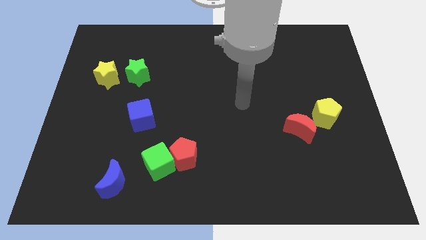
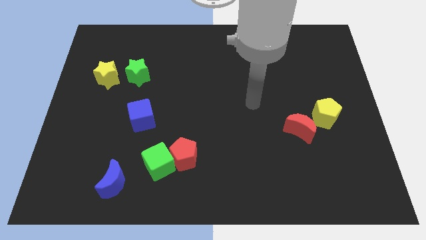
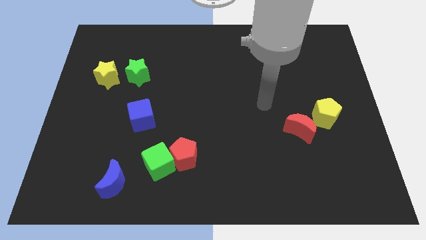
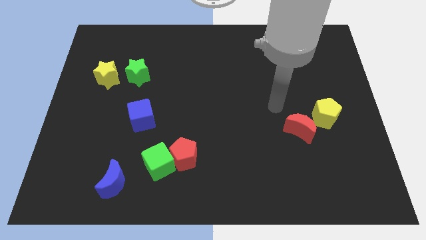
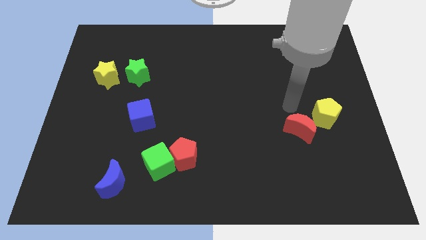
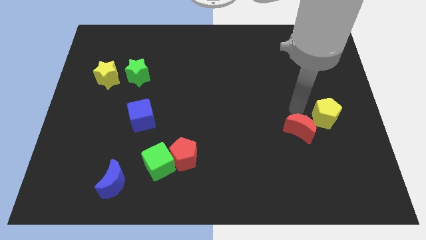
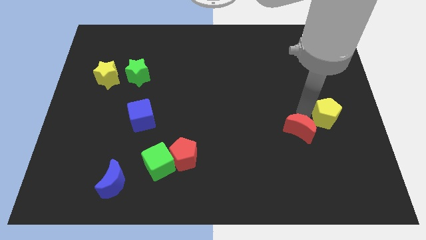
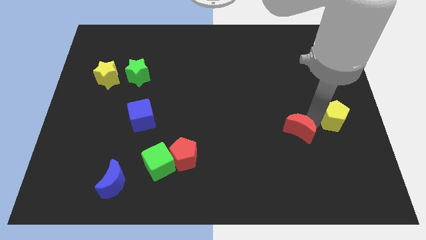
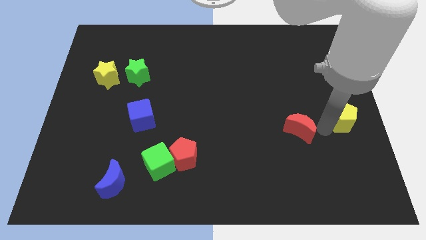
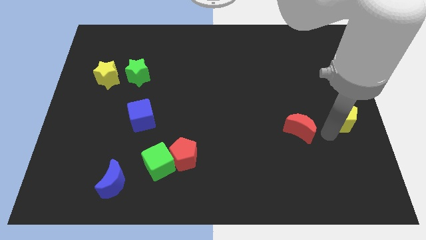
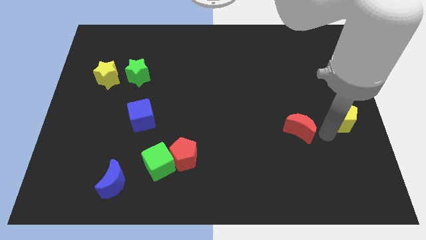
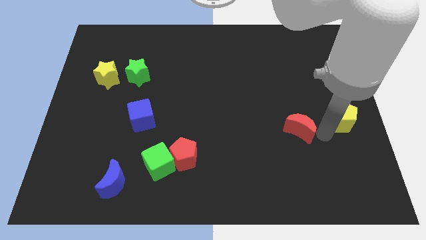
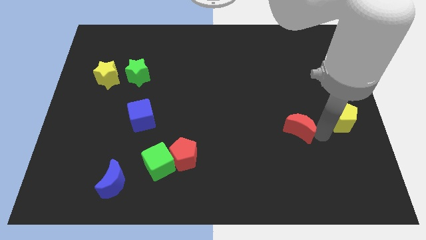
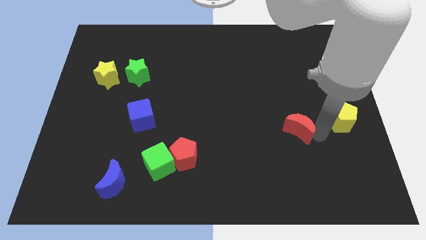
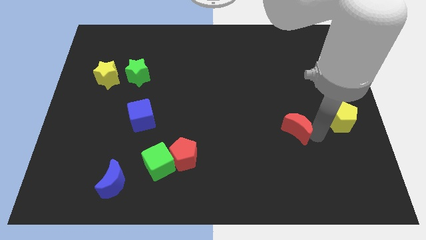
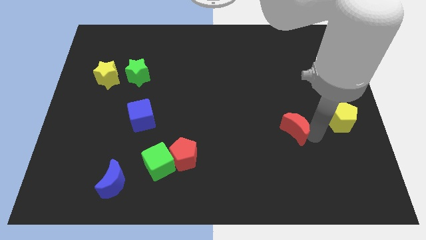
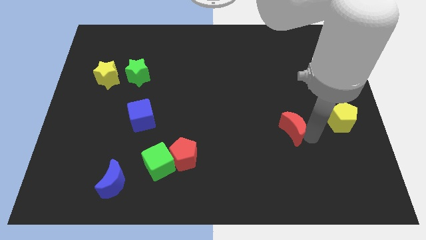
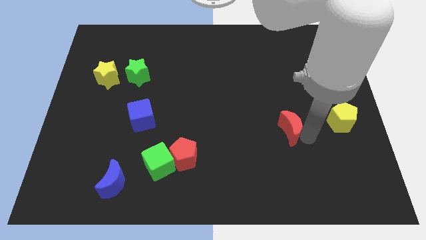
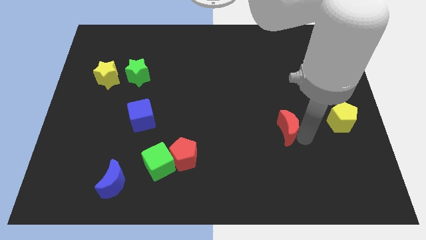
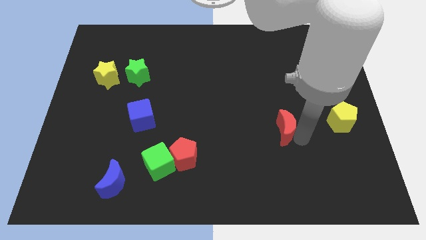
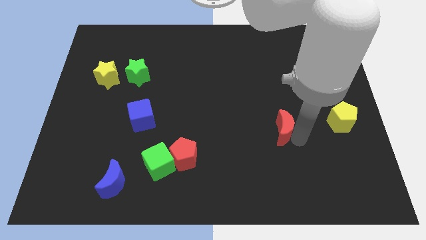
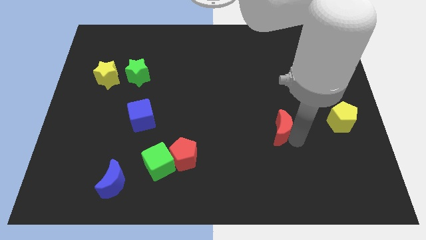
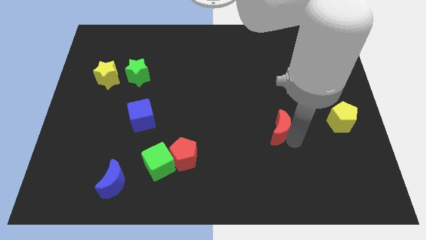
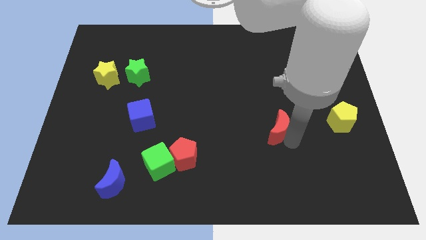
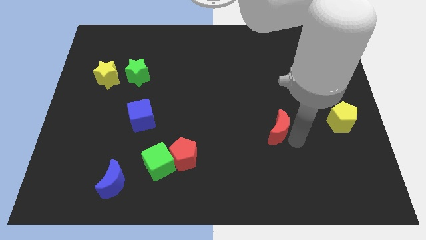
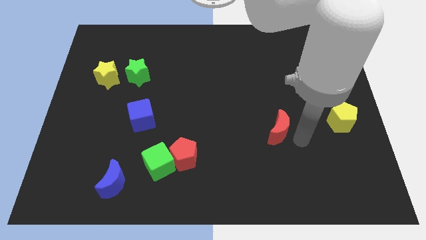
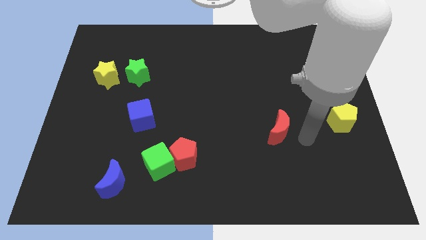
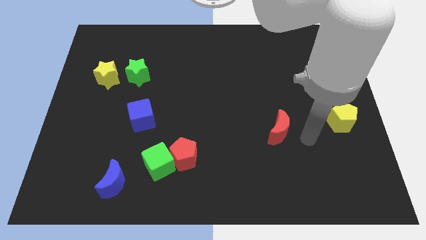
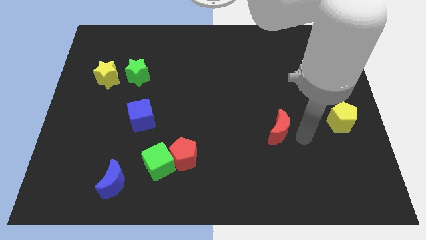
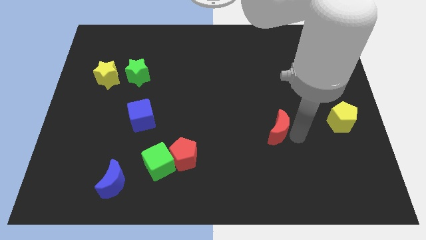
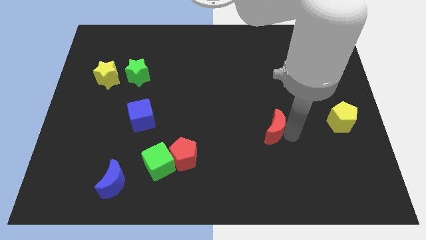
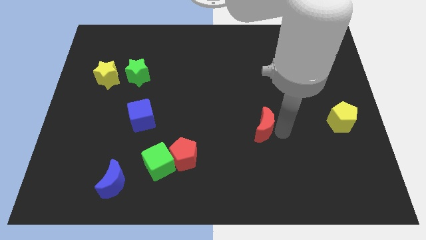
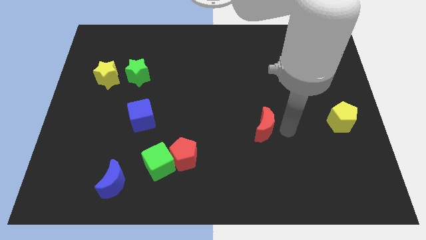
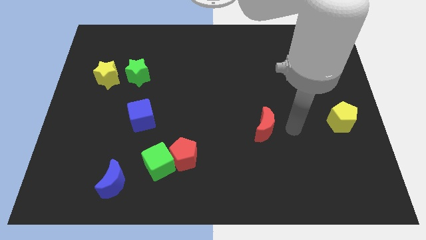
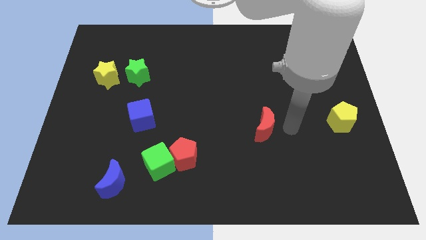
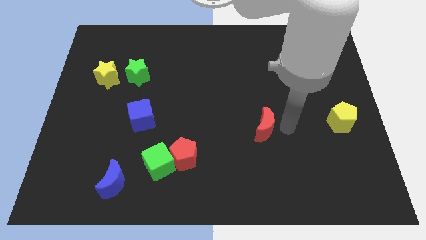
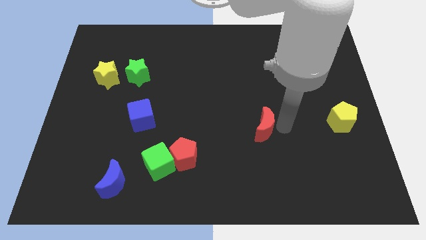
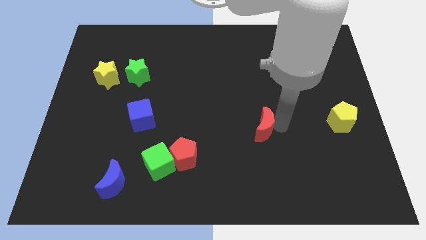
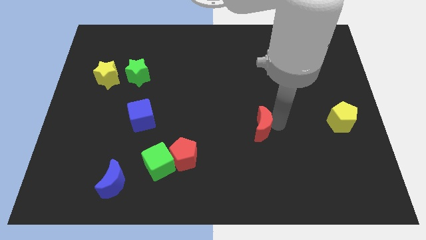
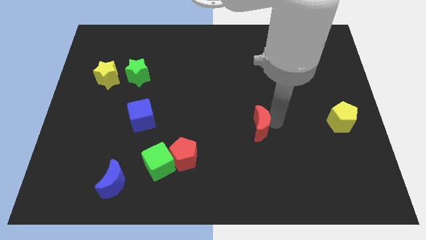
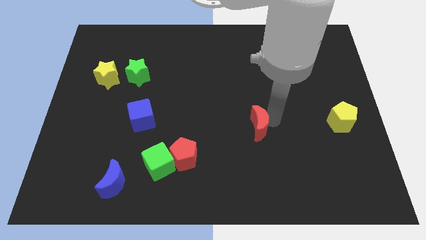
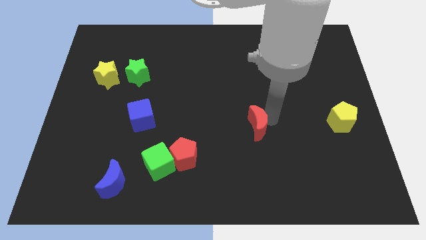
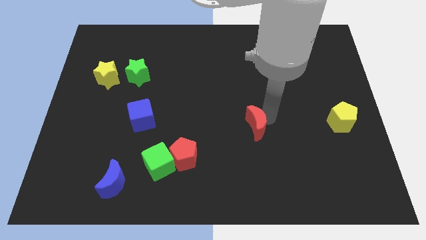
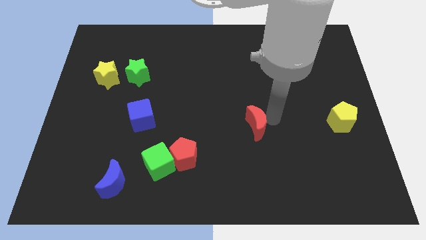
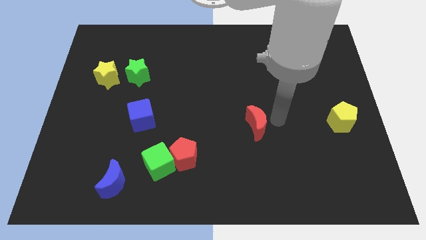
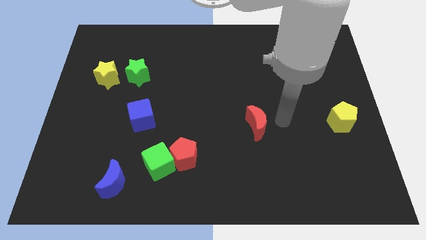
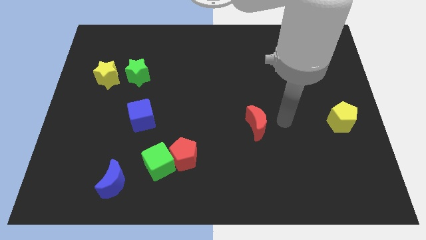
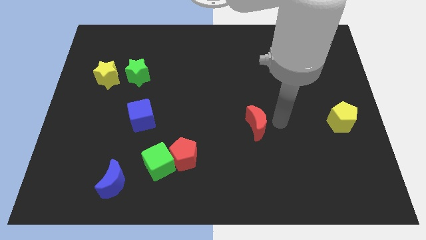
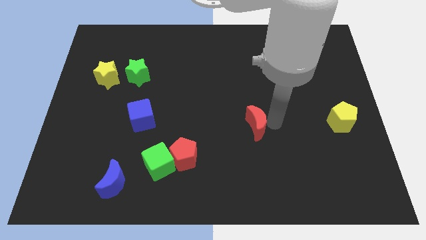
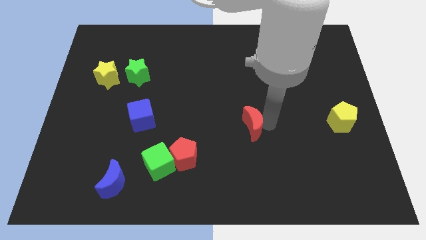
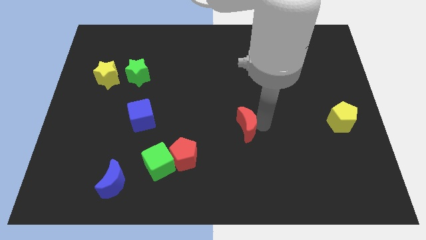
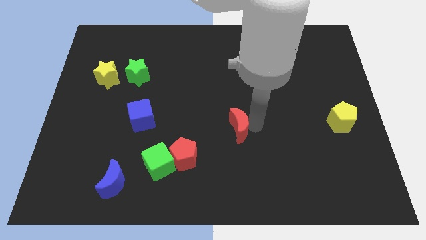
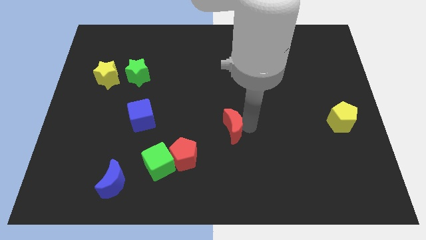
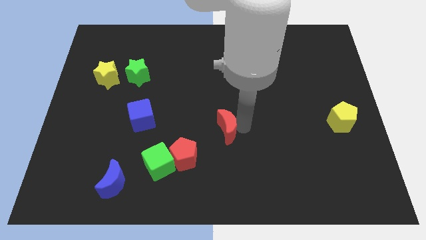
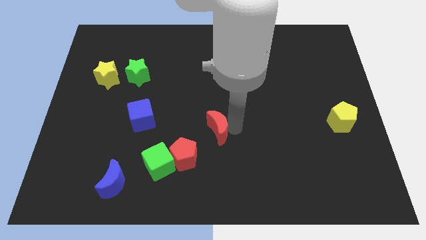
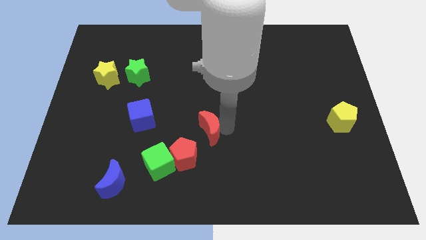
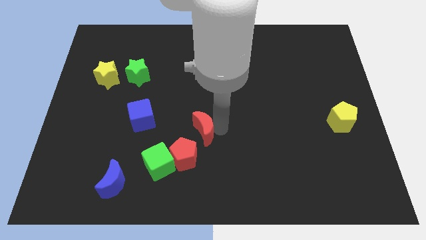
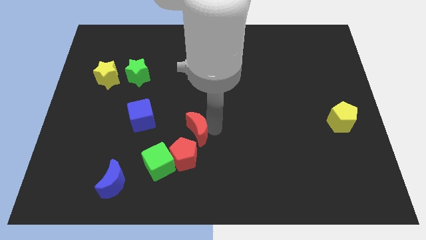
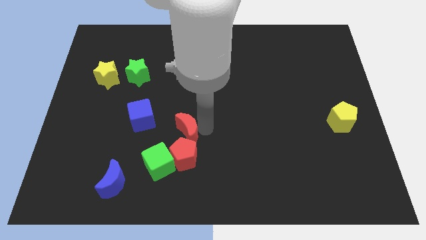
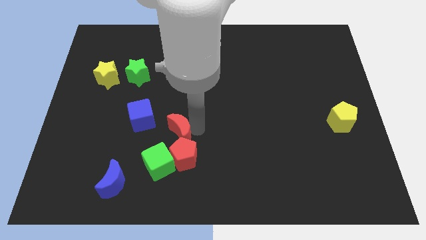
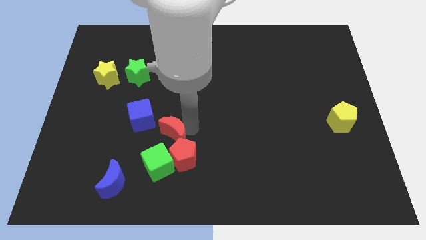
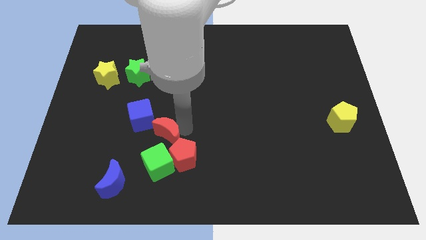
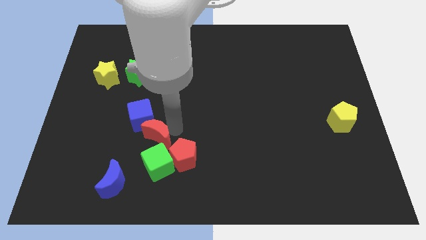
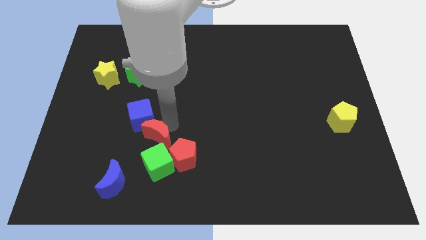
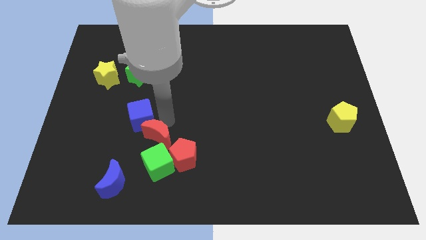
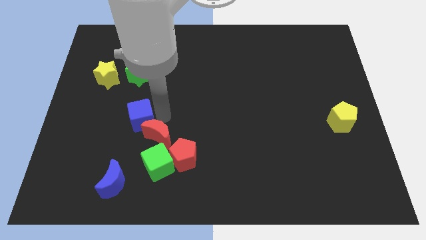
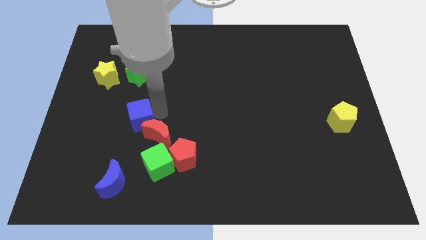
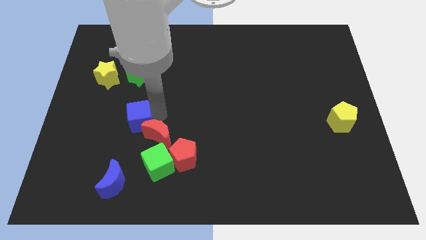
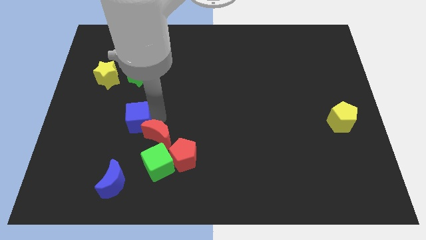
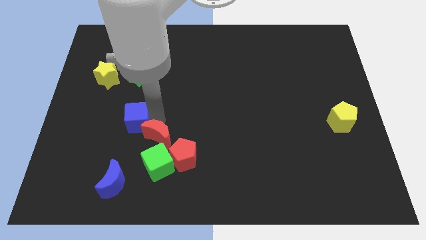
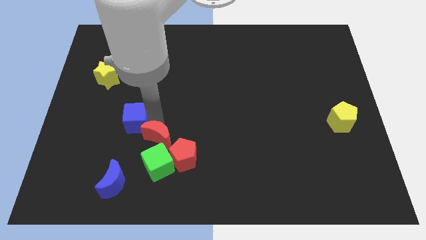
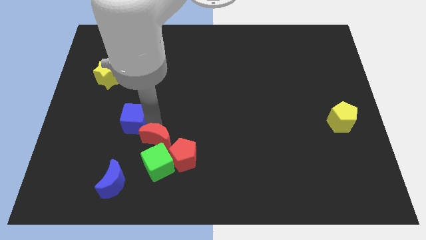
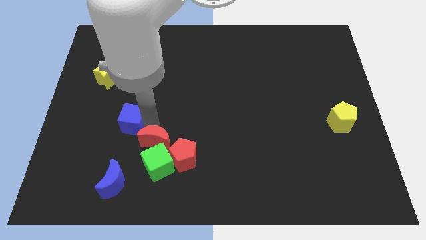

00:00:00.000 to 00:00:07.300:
slide the red moon next to the green cube
